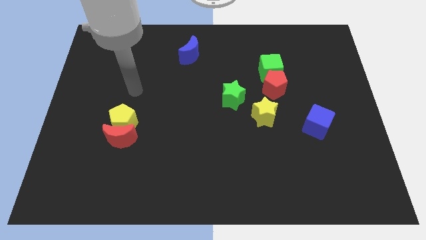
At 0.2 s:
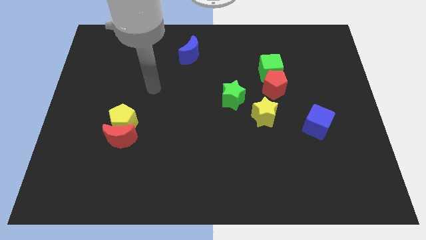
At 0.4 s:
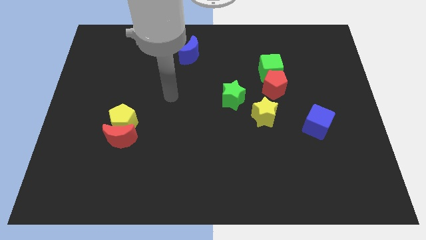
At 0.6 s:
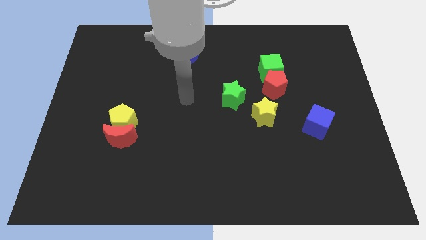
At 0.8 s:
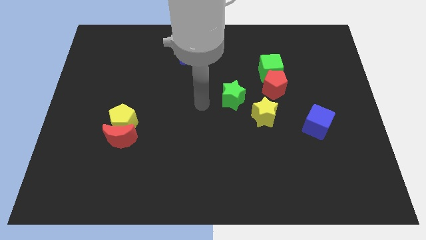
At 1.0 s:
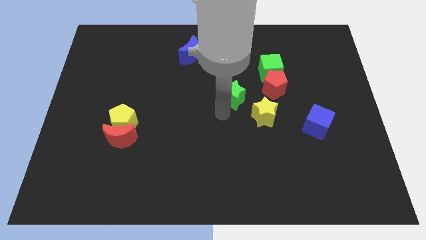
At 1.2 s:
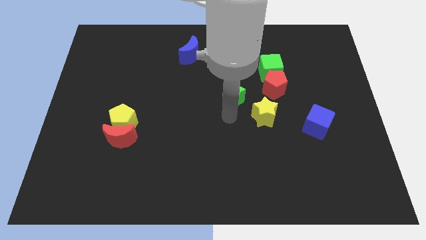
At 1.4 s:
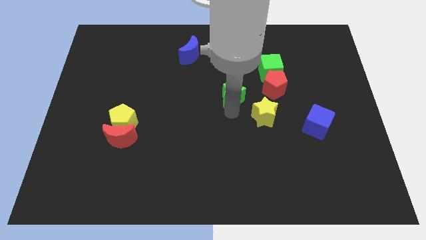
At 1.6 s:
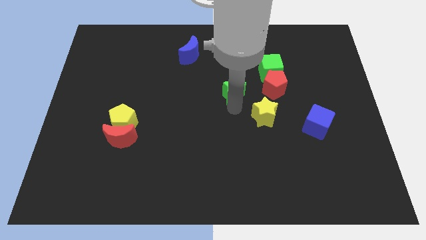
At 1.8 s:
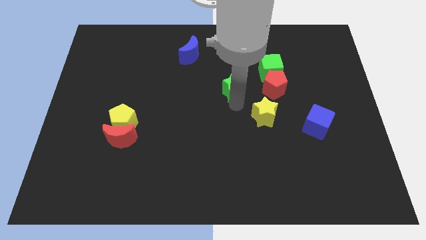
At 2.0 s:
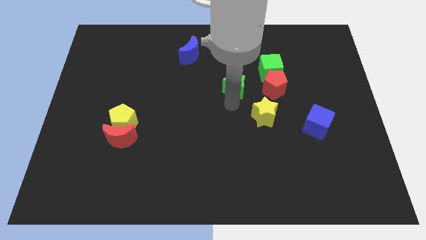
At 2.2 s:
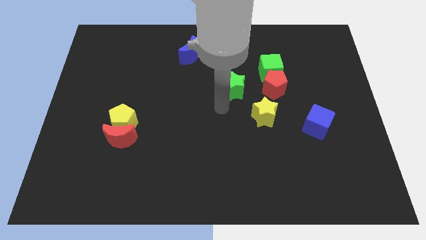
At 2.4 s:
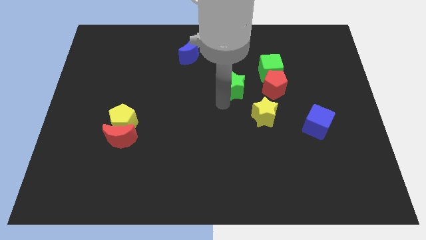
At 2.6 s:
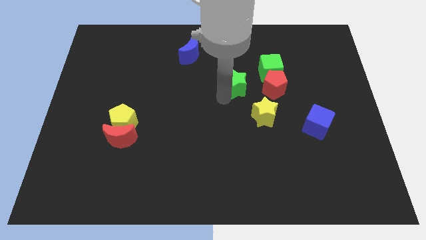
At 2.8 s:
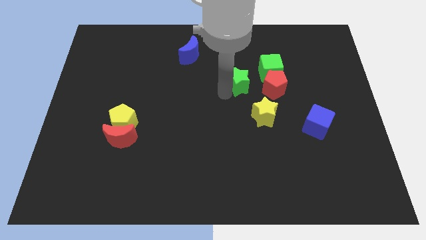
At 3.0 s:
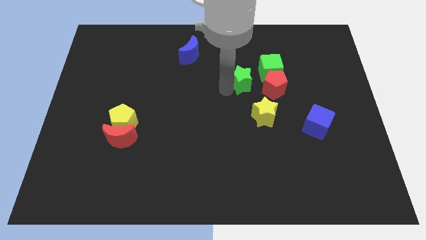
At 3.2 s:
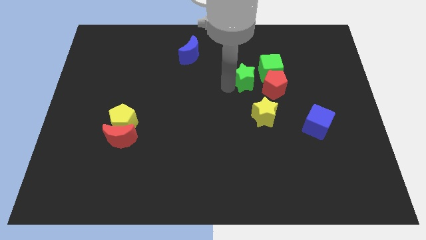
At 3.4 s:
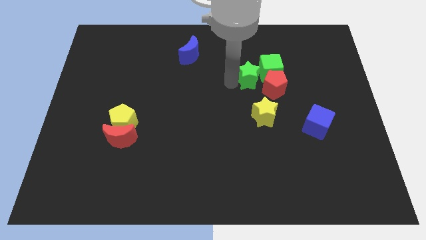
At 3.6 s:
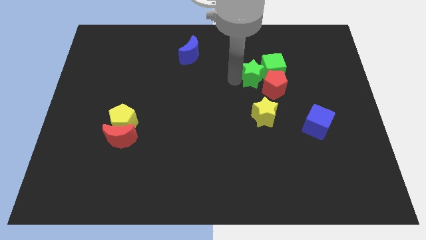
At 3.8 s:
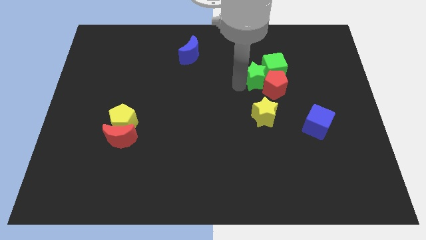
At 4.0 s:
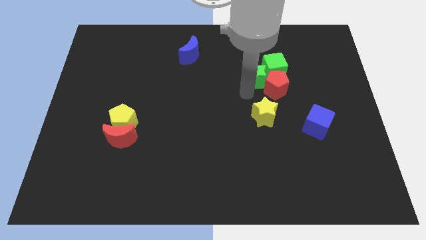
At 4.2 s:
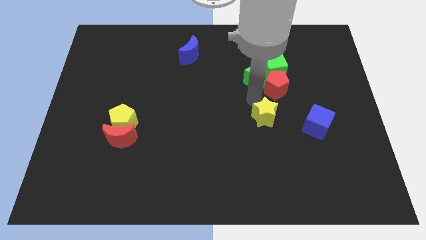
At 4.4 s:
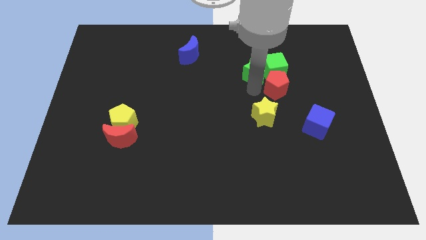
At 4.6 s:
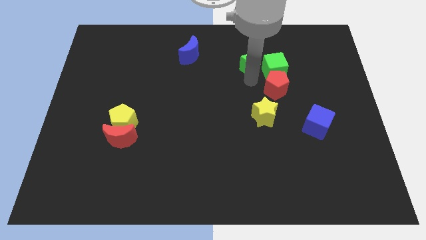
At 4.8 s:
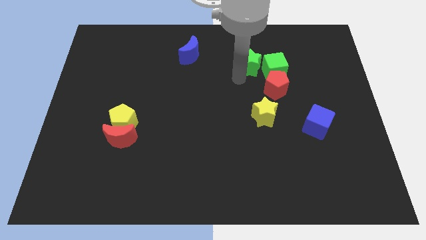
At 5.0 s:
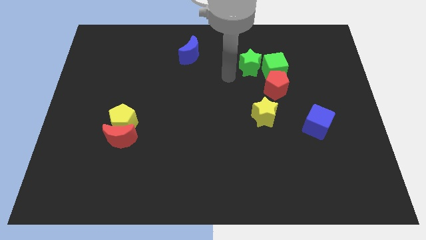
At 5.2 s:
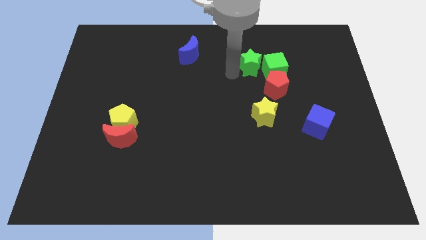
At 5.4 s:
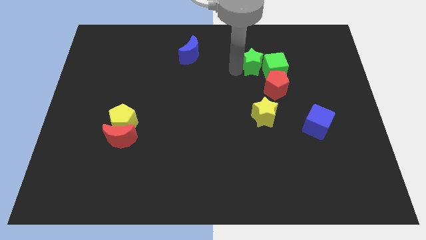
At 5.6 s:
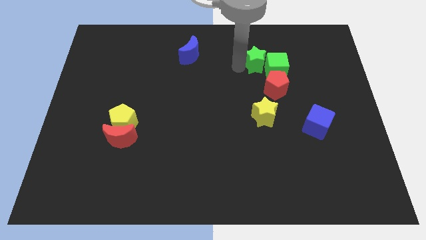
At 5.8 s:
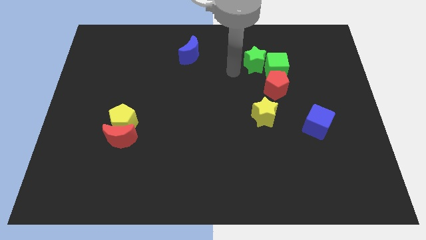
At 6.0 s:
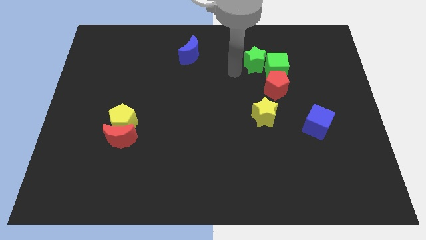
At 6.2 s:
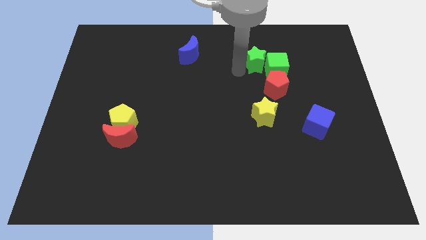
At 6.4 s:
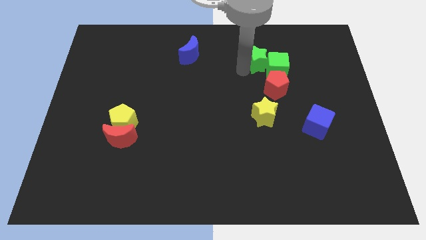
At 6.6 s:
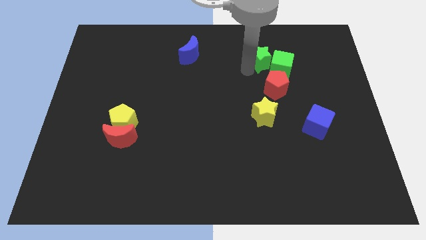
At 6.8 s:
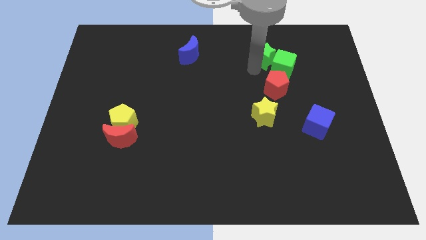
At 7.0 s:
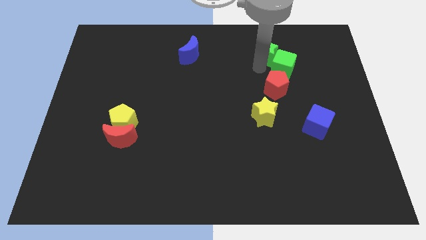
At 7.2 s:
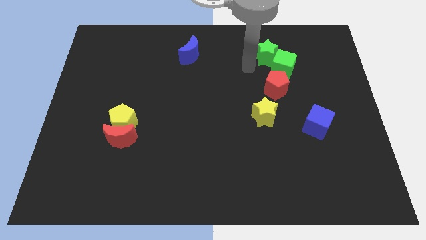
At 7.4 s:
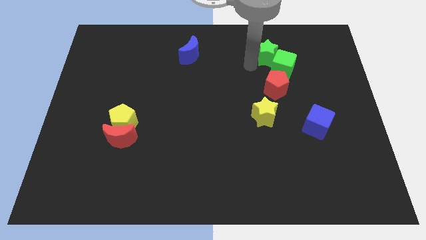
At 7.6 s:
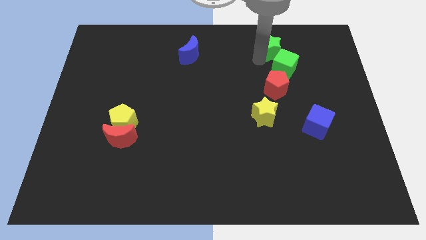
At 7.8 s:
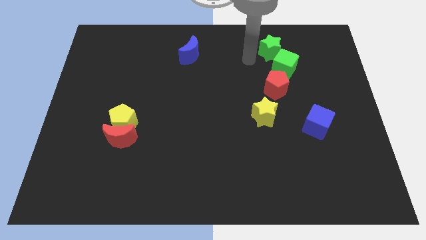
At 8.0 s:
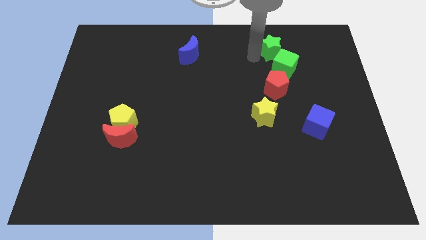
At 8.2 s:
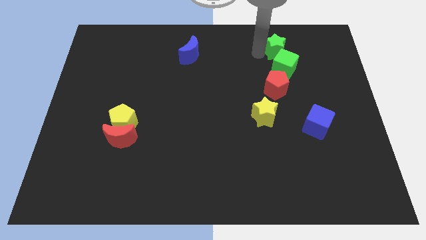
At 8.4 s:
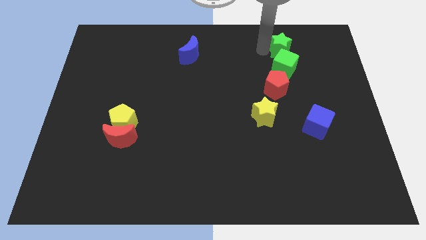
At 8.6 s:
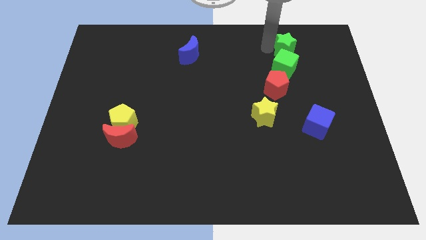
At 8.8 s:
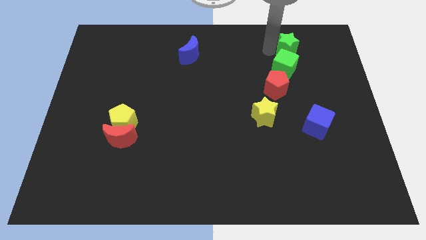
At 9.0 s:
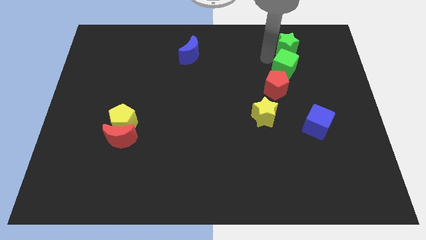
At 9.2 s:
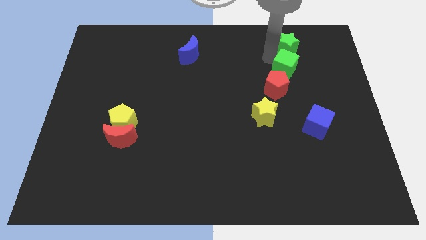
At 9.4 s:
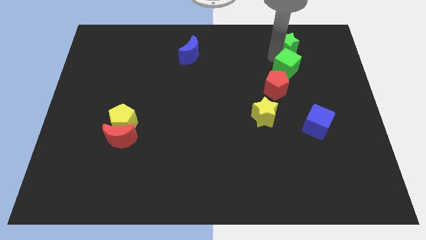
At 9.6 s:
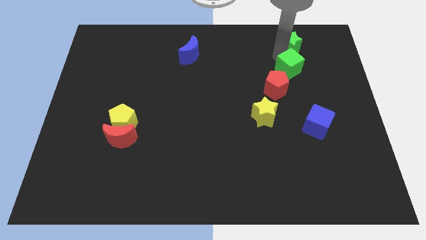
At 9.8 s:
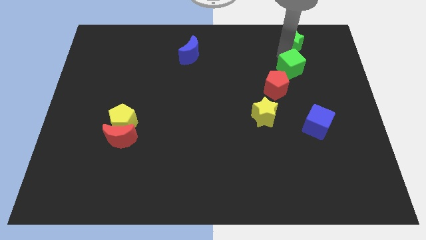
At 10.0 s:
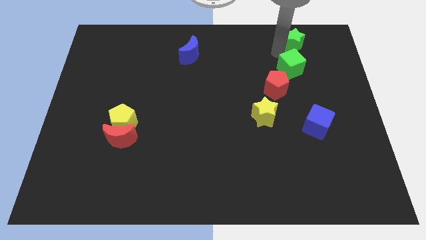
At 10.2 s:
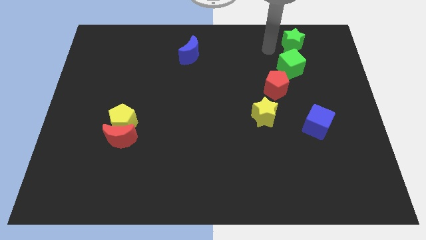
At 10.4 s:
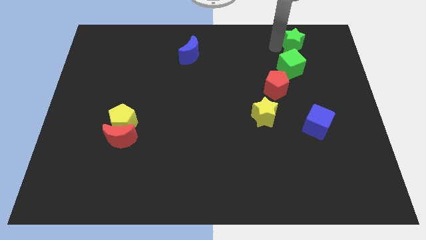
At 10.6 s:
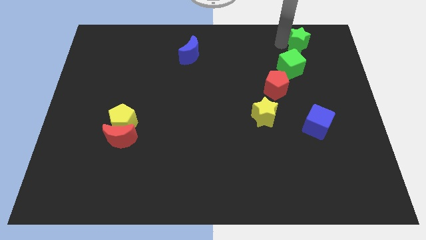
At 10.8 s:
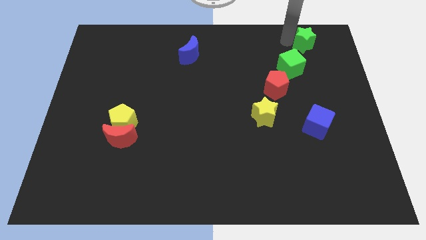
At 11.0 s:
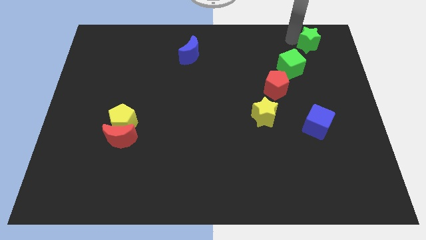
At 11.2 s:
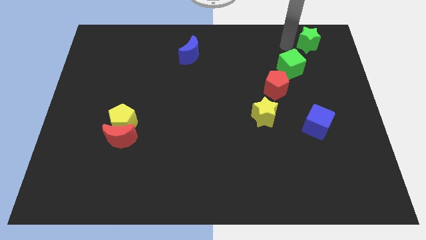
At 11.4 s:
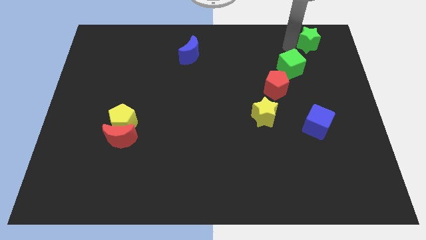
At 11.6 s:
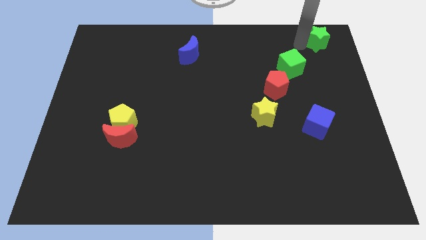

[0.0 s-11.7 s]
move the green star to the top right

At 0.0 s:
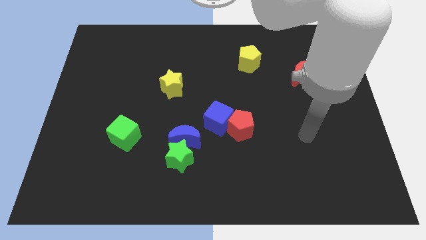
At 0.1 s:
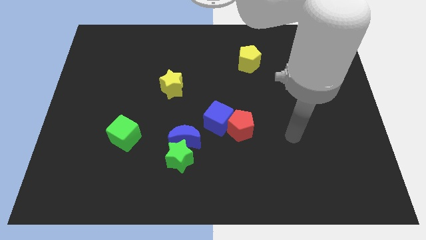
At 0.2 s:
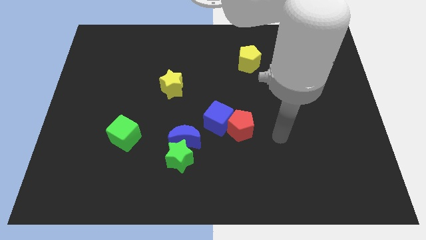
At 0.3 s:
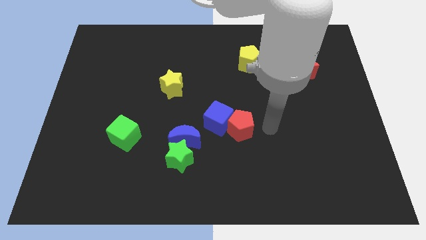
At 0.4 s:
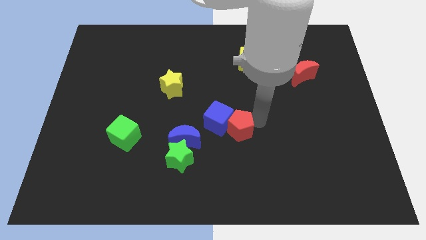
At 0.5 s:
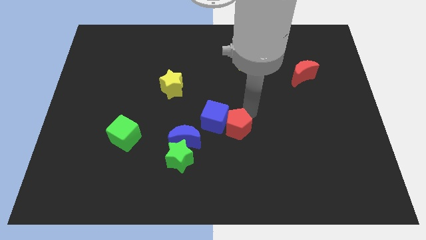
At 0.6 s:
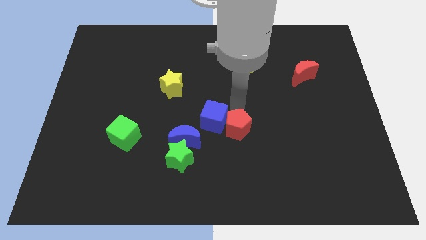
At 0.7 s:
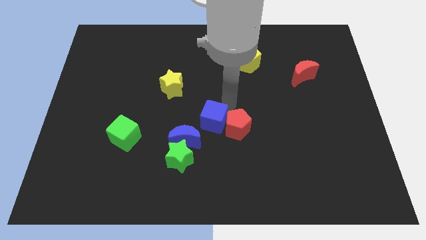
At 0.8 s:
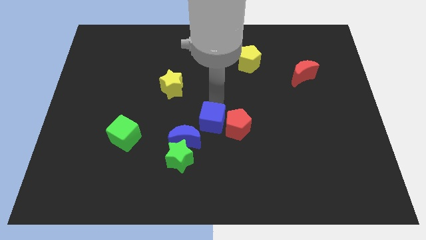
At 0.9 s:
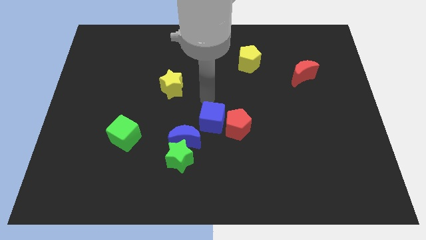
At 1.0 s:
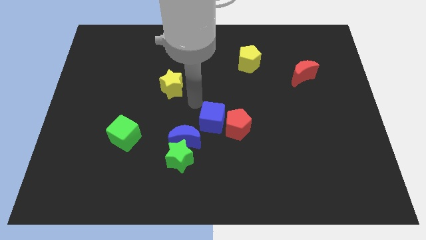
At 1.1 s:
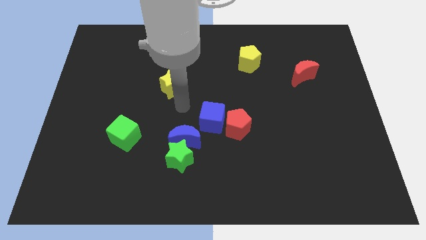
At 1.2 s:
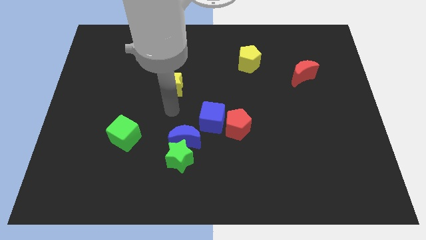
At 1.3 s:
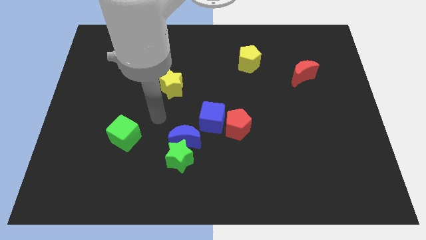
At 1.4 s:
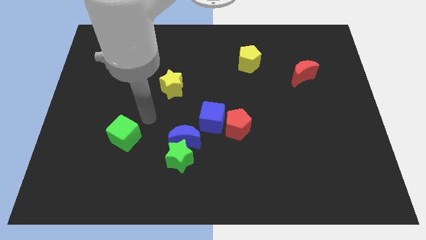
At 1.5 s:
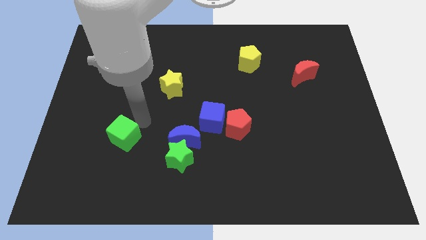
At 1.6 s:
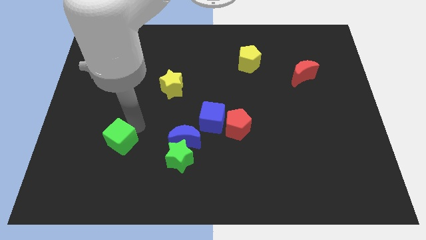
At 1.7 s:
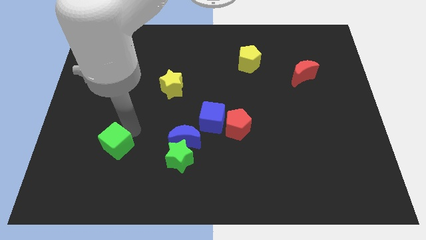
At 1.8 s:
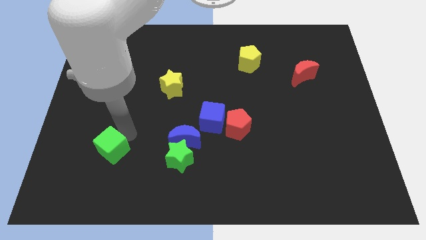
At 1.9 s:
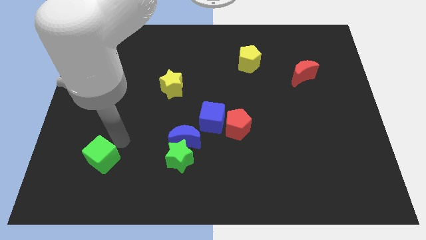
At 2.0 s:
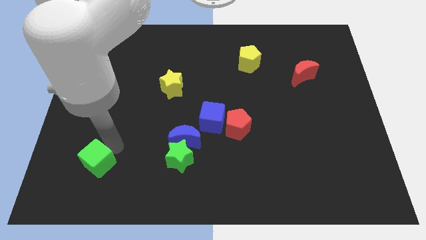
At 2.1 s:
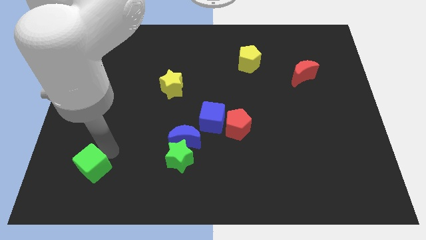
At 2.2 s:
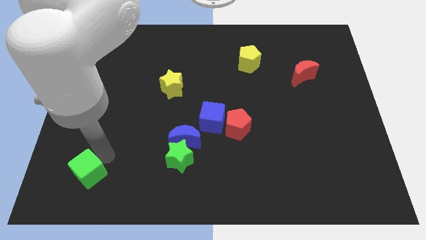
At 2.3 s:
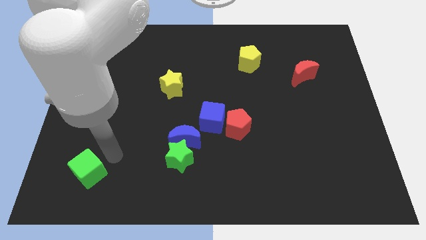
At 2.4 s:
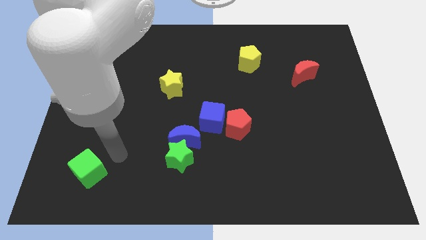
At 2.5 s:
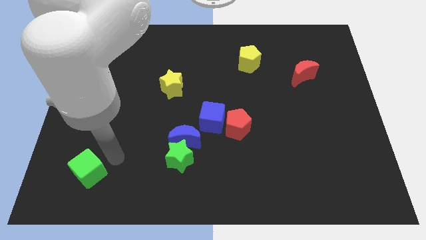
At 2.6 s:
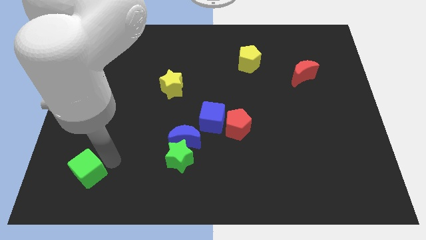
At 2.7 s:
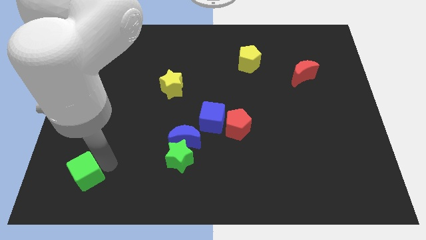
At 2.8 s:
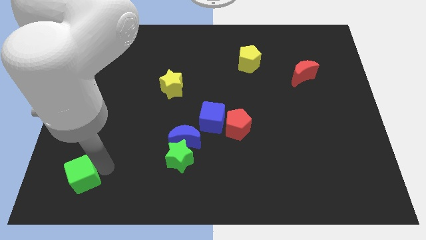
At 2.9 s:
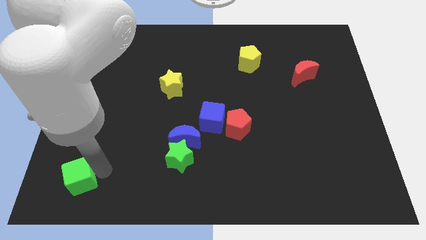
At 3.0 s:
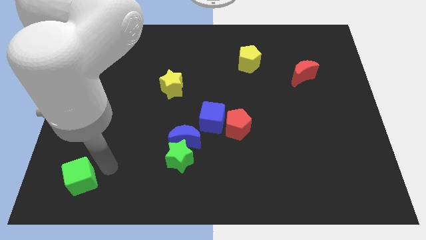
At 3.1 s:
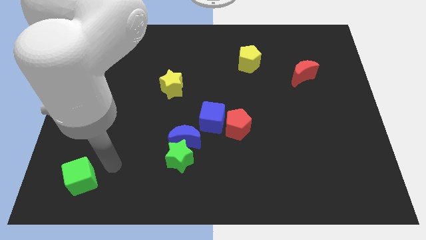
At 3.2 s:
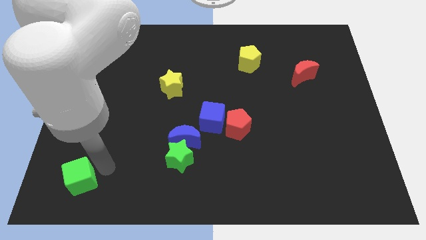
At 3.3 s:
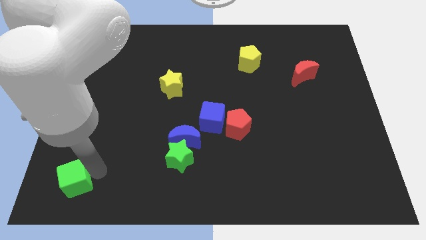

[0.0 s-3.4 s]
slide the green cube to the bottom left
